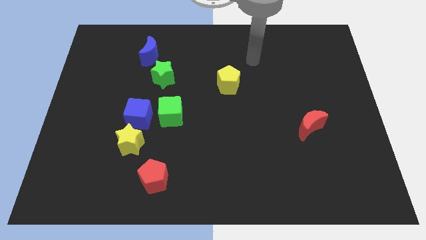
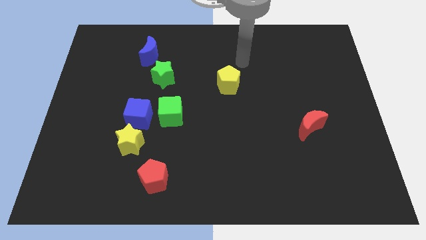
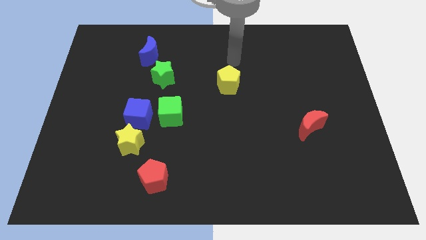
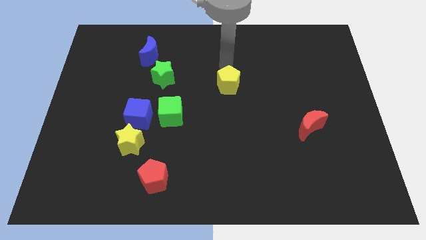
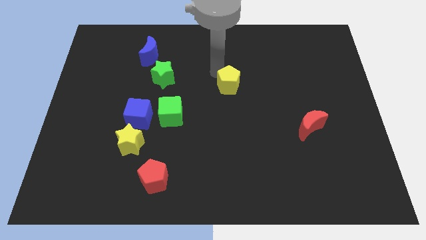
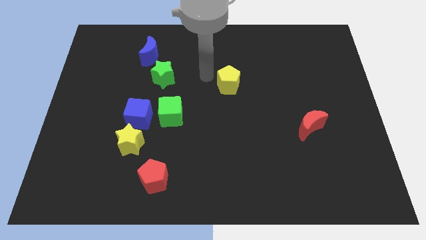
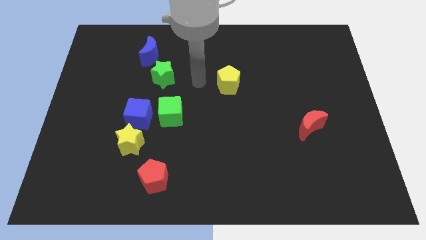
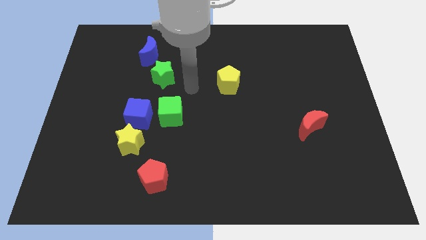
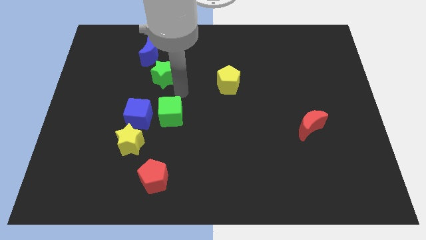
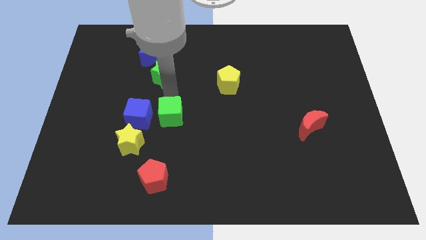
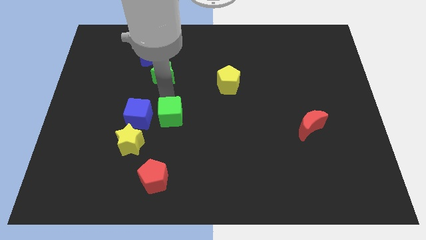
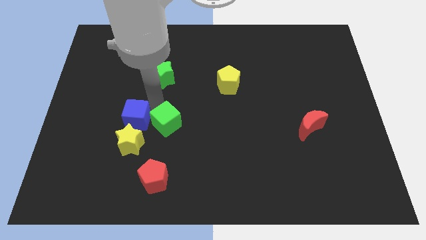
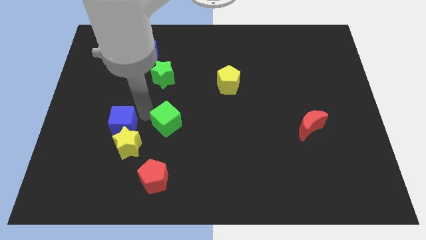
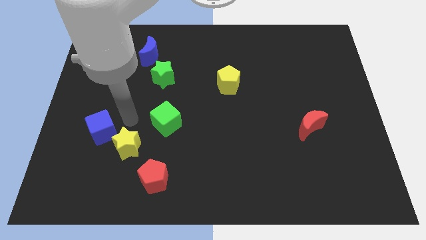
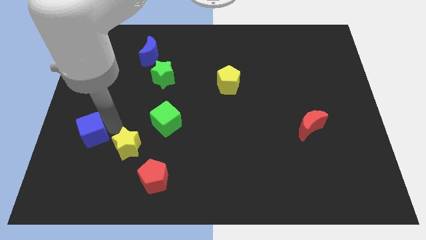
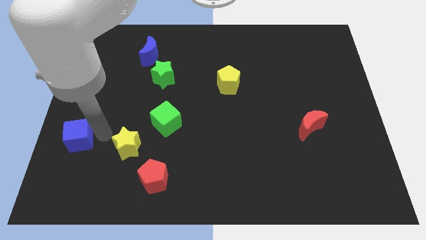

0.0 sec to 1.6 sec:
move the yellow star away from the blue cube

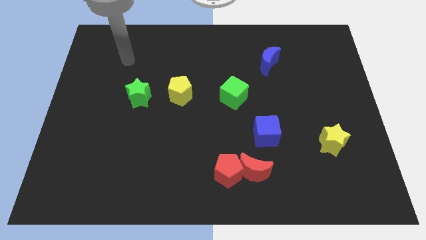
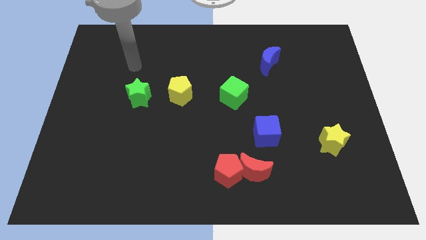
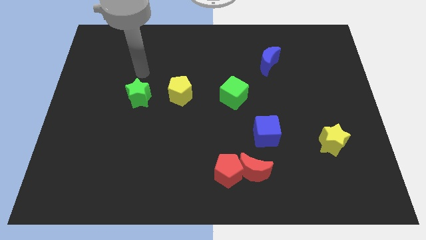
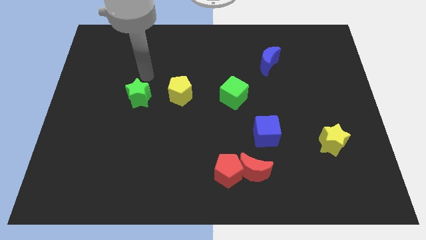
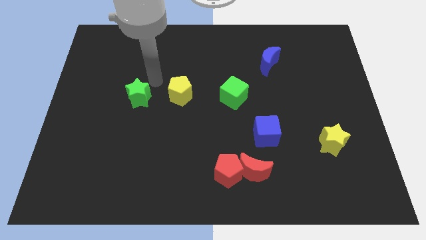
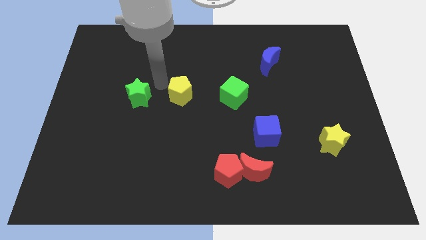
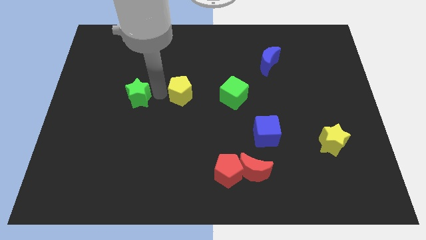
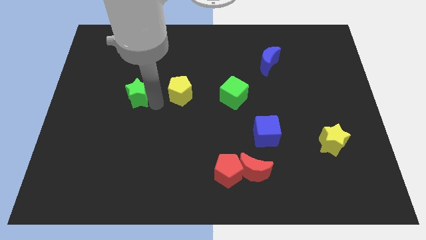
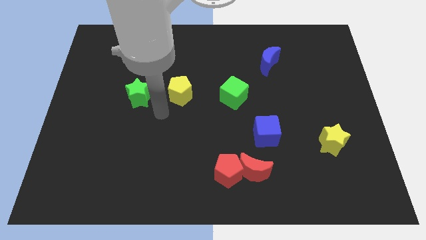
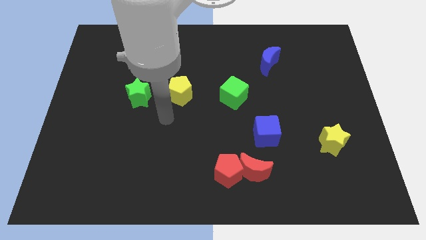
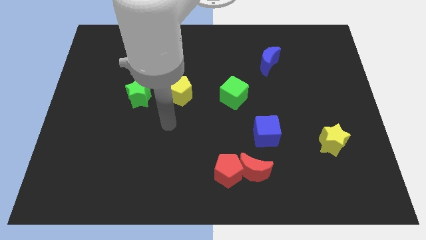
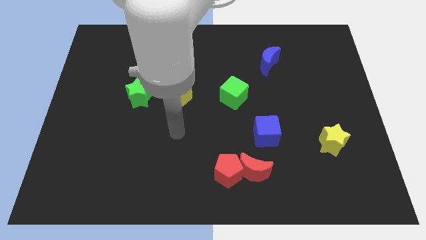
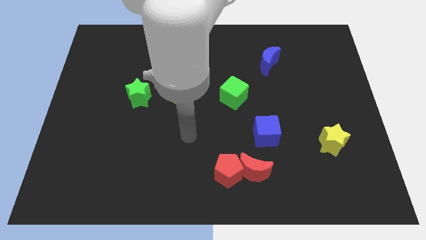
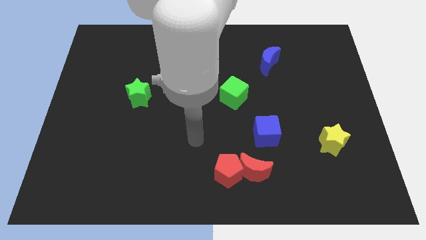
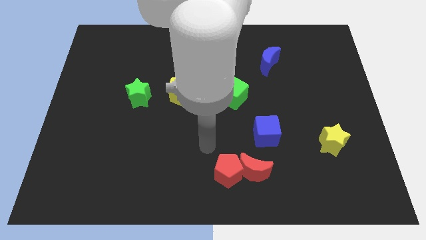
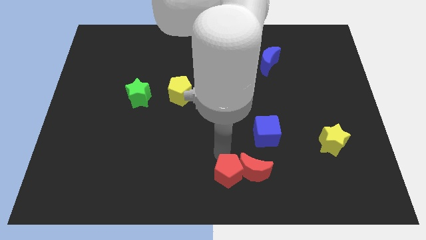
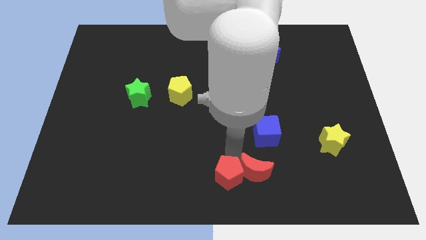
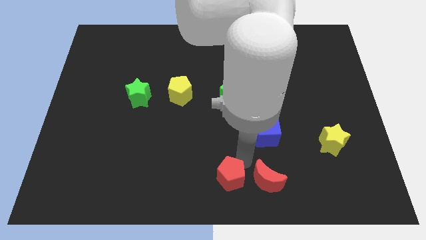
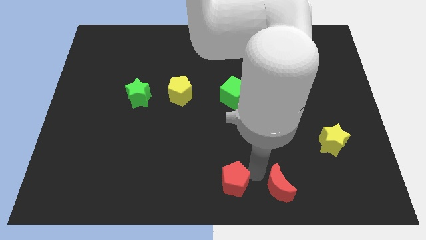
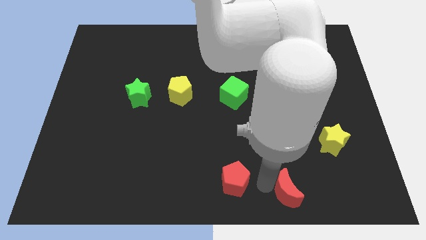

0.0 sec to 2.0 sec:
pull the red pentagon apart from the red moon

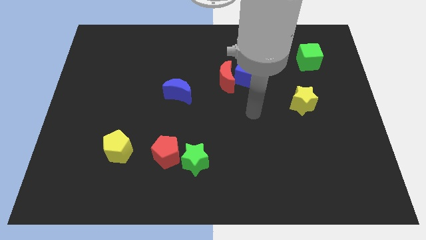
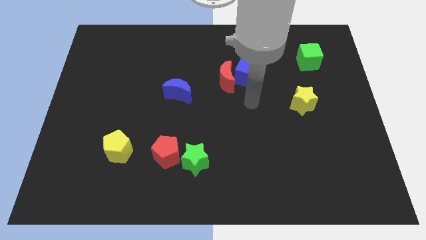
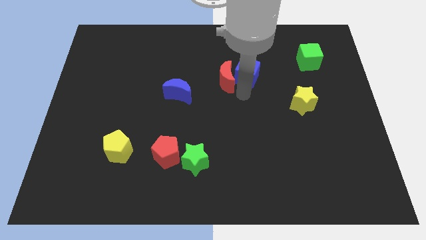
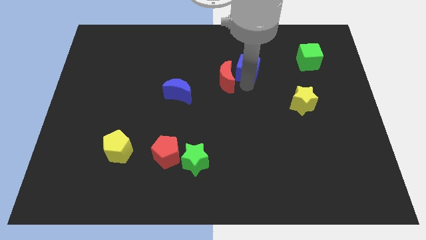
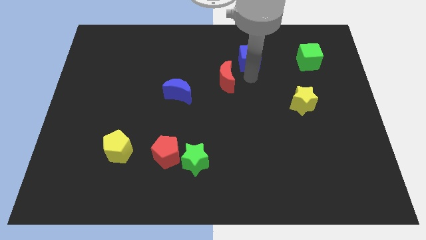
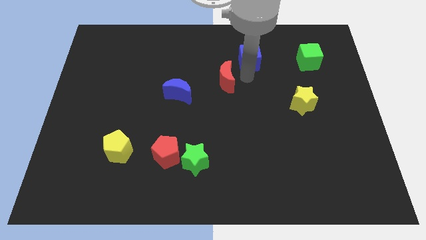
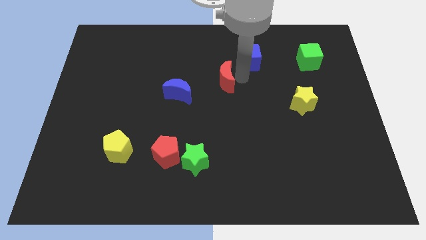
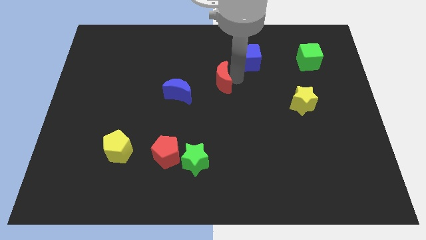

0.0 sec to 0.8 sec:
move the red moon away from the blue cube

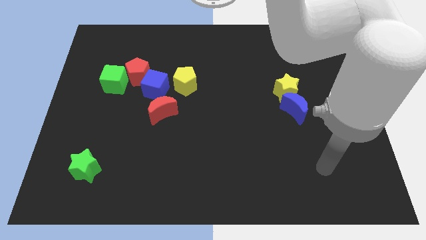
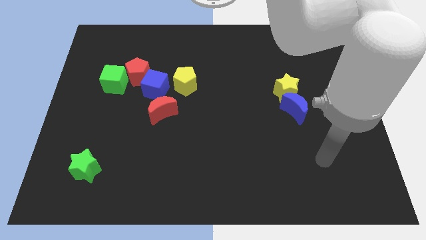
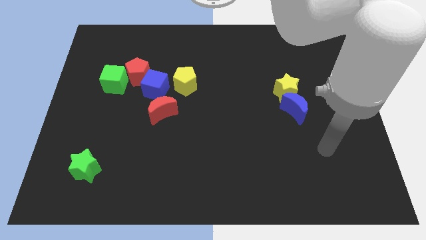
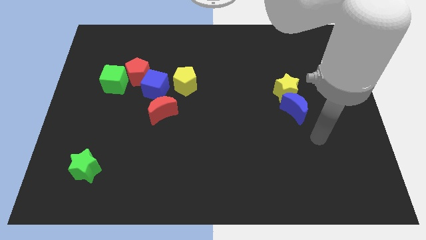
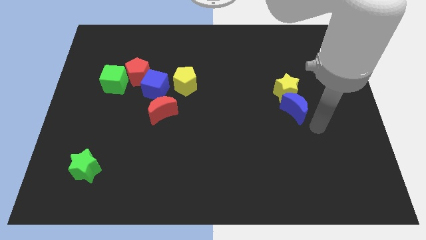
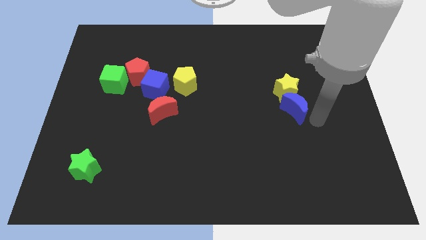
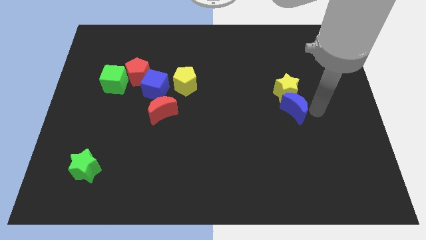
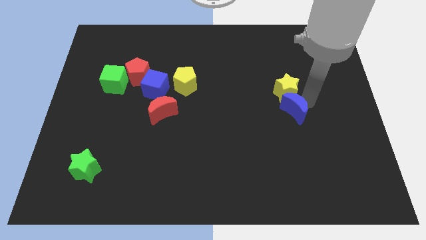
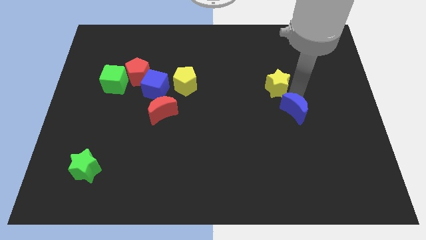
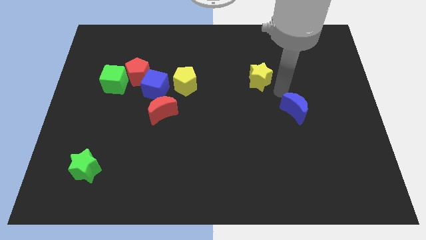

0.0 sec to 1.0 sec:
move the blue moon away from the yellow star

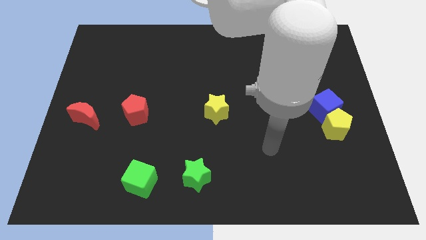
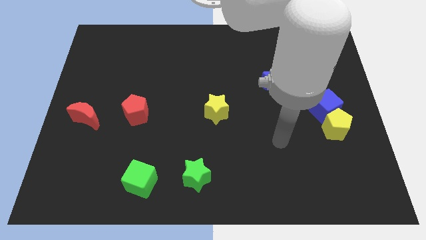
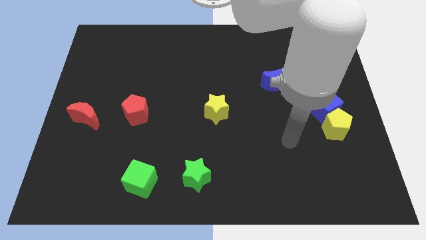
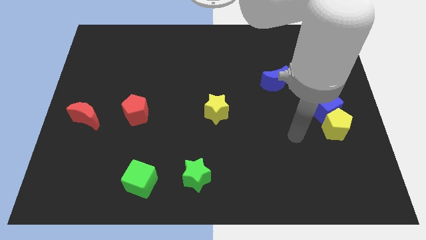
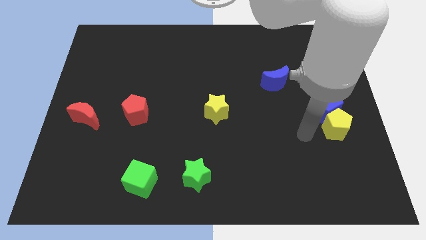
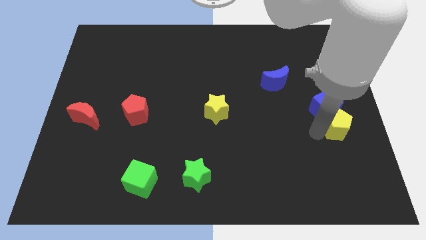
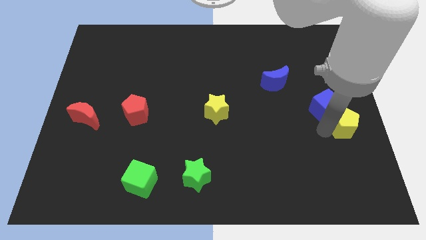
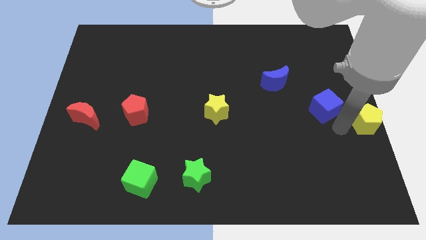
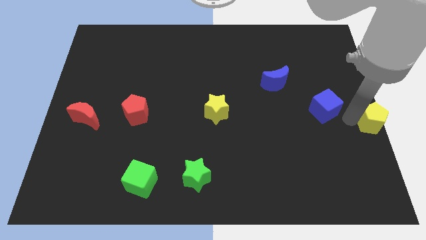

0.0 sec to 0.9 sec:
separate the blue cube from the yellow pentagon

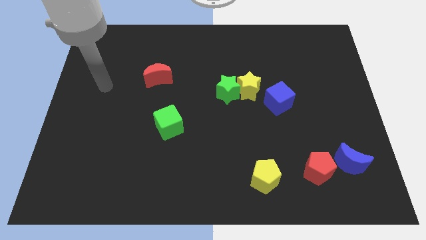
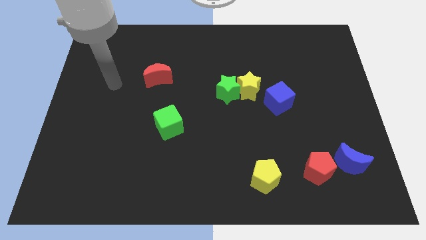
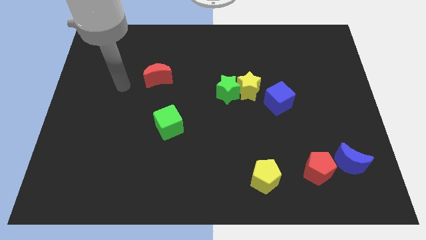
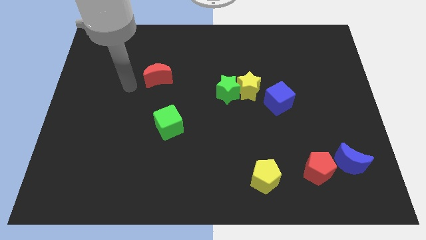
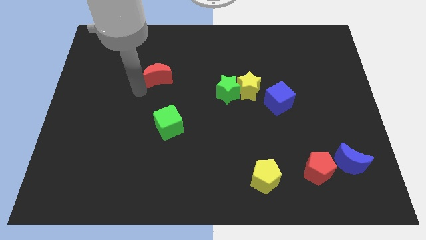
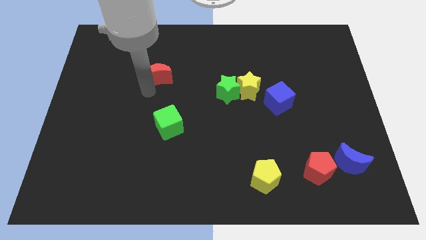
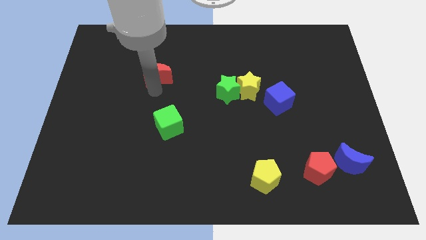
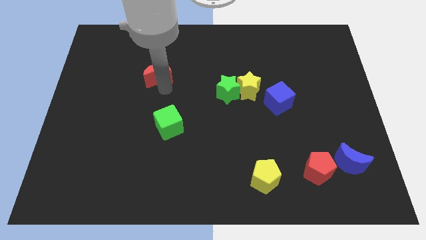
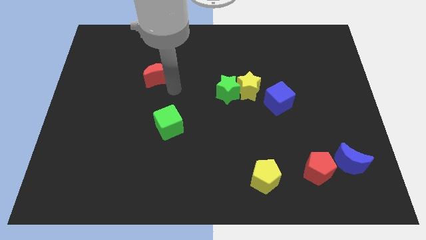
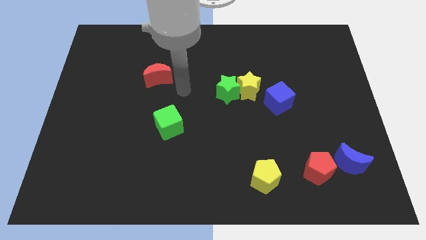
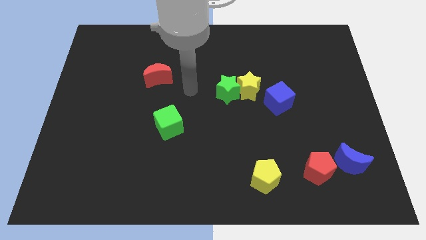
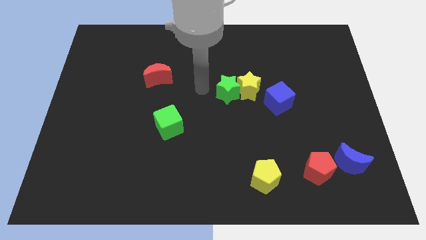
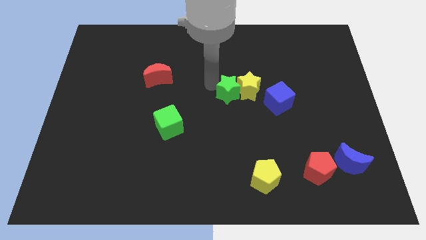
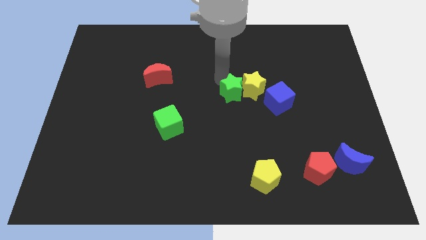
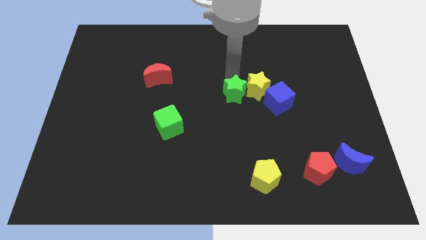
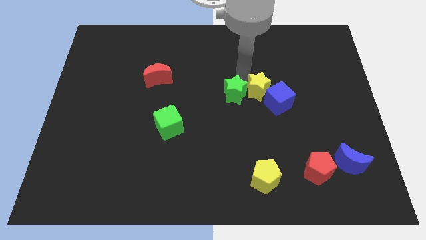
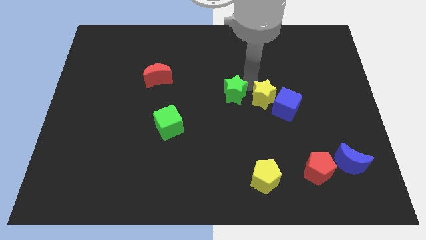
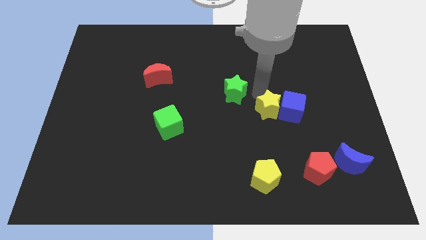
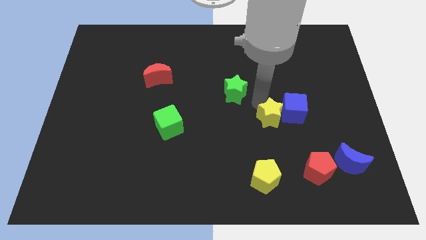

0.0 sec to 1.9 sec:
move the green star away from the yellow star

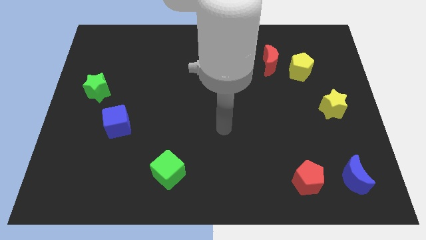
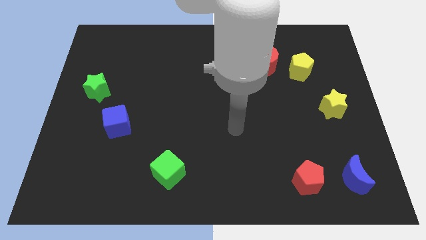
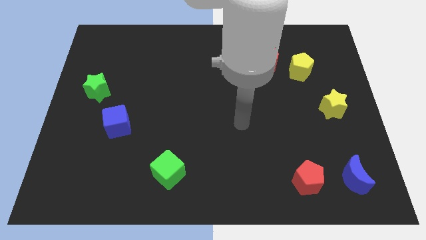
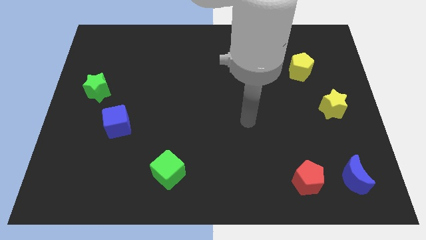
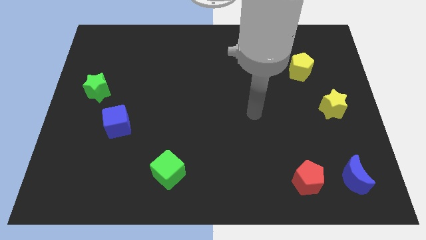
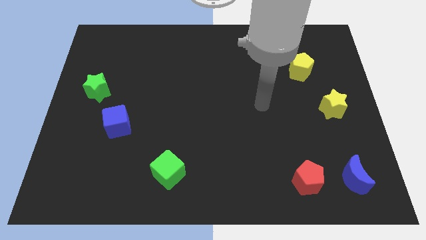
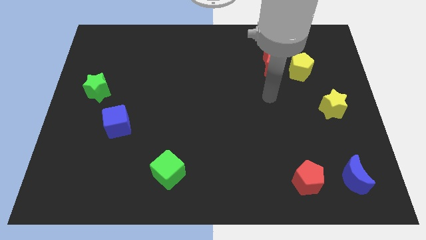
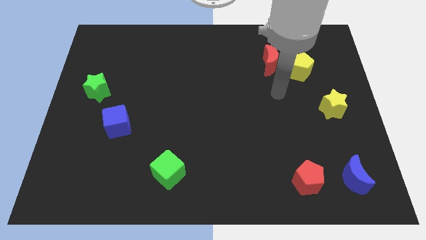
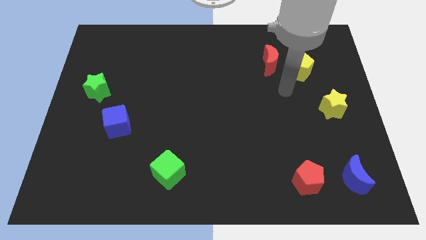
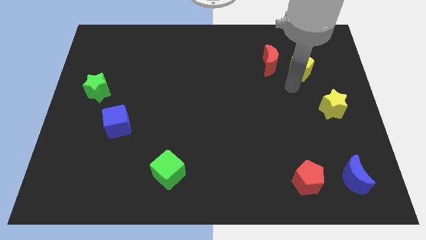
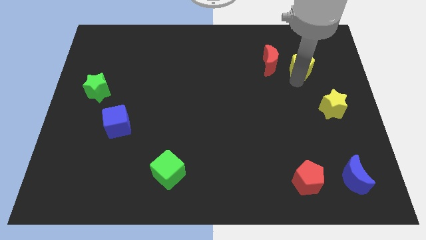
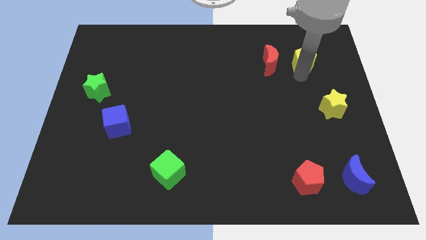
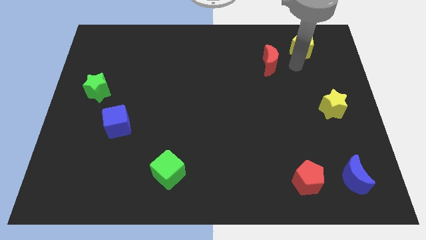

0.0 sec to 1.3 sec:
pull the red moon apart from the yellow pentagon
